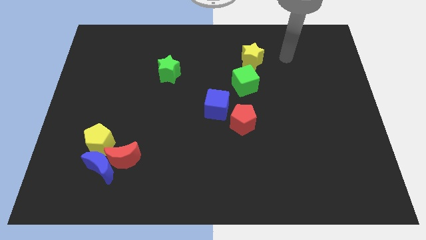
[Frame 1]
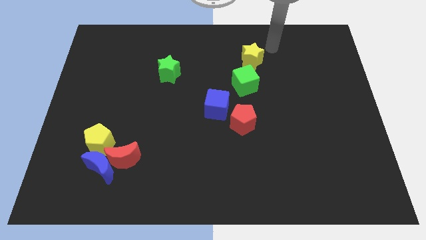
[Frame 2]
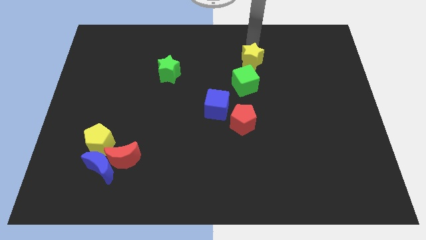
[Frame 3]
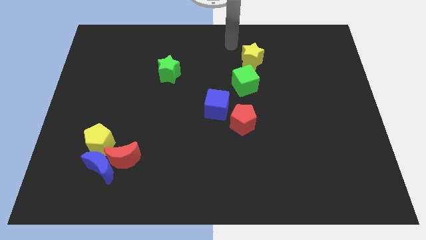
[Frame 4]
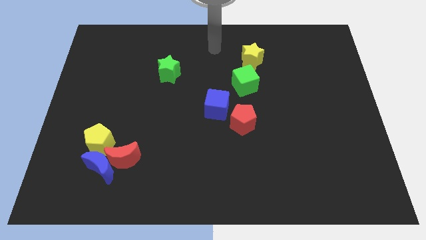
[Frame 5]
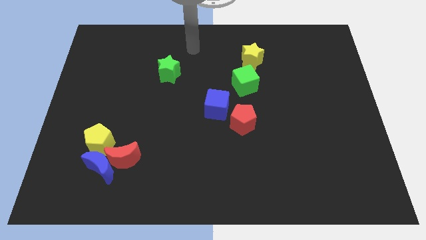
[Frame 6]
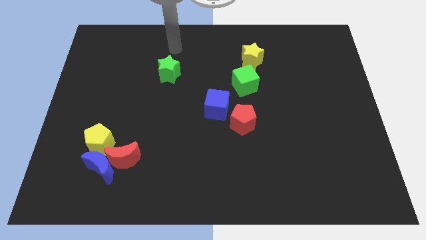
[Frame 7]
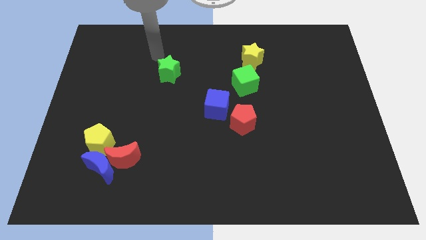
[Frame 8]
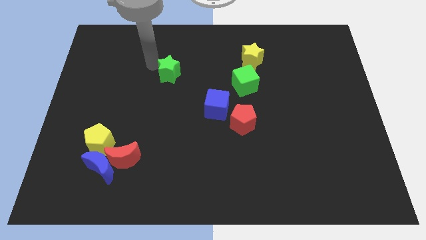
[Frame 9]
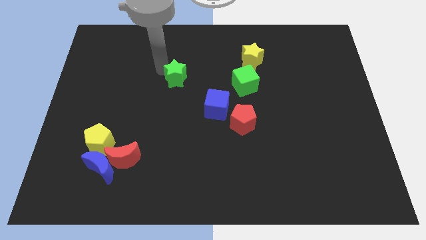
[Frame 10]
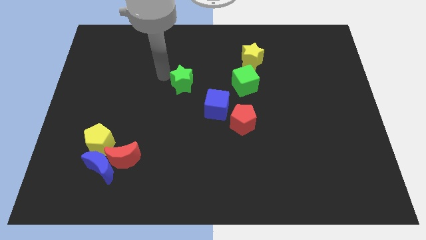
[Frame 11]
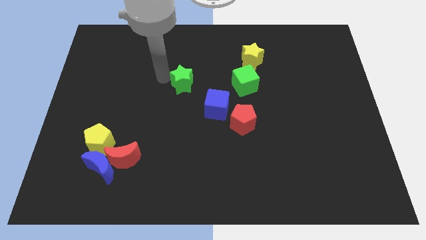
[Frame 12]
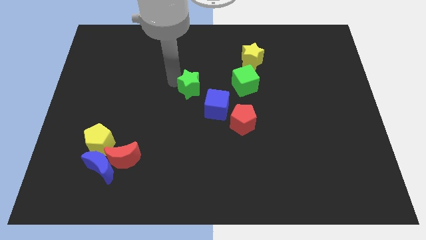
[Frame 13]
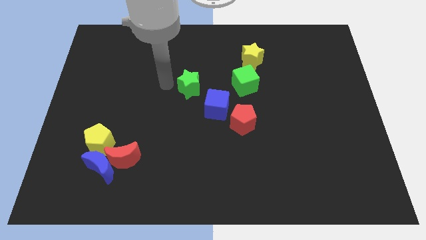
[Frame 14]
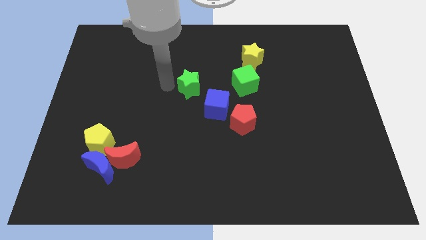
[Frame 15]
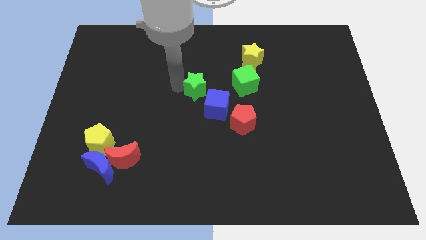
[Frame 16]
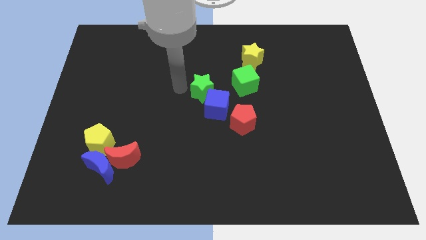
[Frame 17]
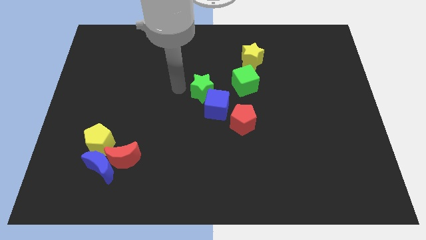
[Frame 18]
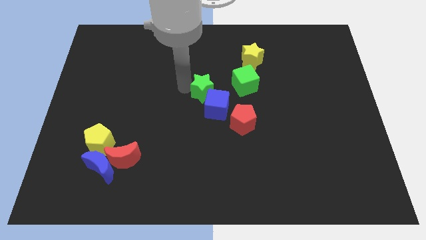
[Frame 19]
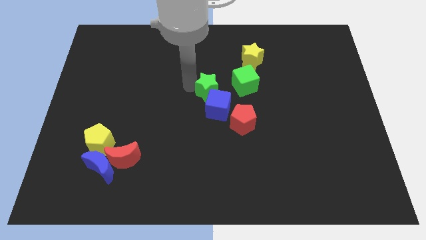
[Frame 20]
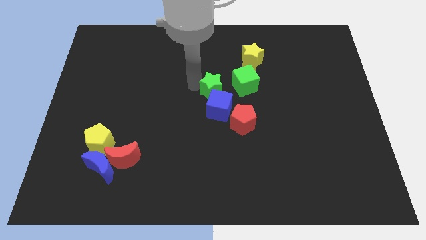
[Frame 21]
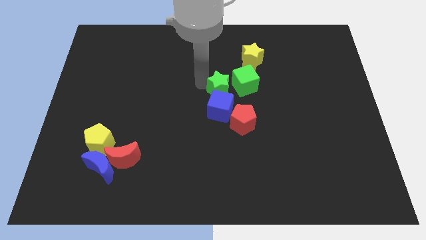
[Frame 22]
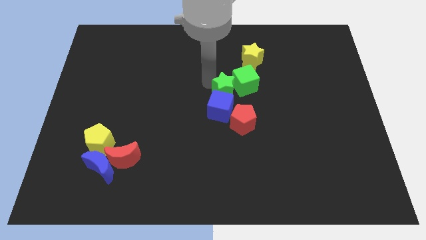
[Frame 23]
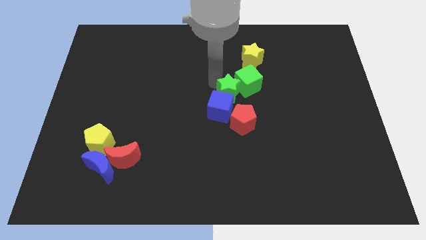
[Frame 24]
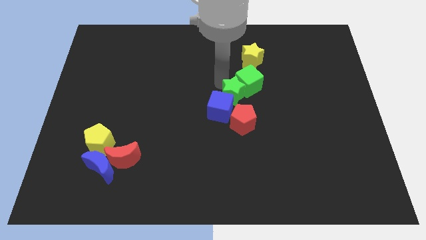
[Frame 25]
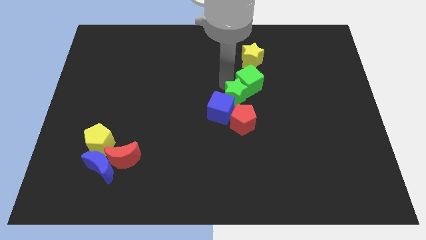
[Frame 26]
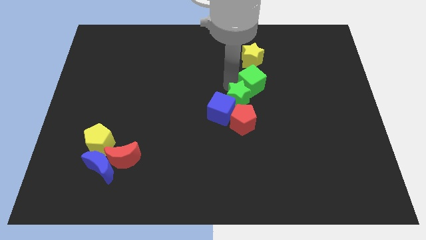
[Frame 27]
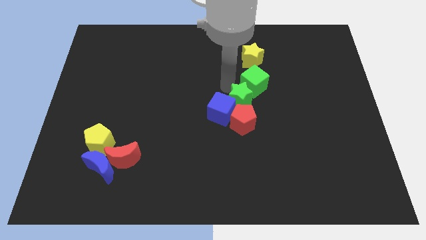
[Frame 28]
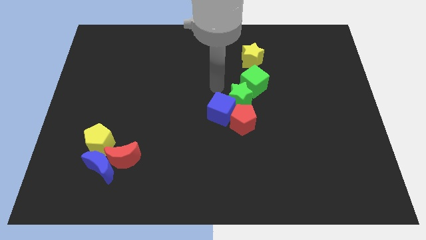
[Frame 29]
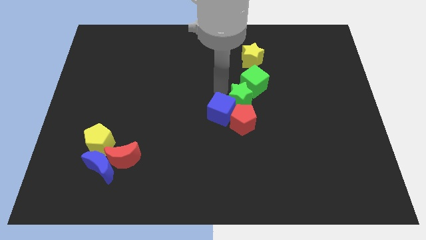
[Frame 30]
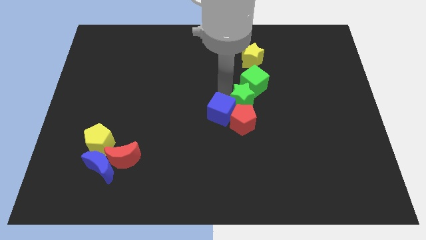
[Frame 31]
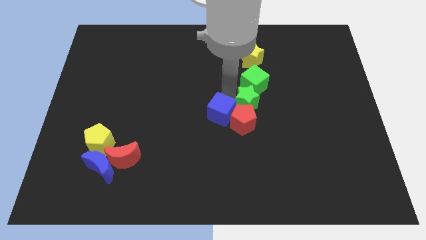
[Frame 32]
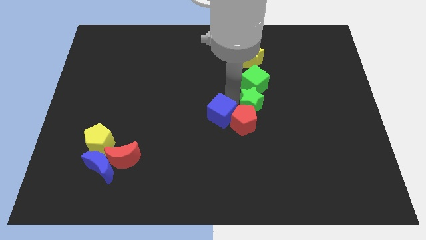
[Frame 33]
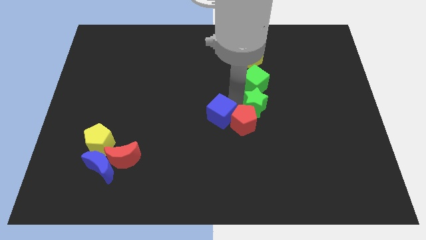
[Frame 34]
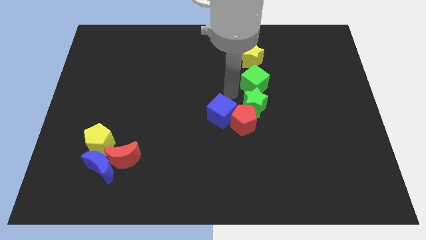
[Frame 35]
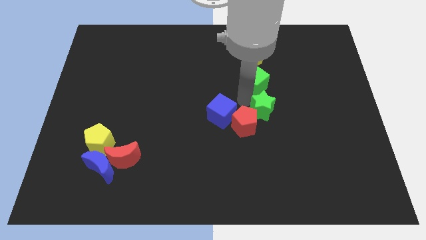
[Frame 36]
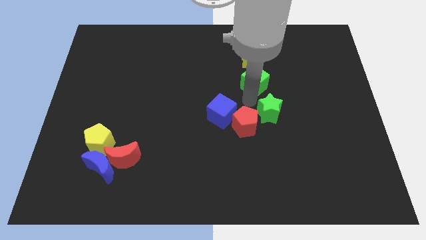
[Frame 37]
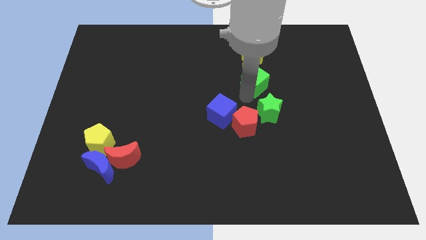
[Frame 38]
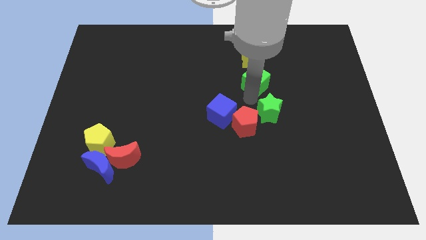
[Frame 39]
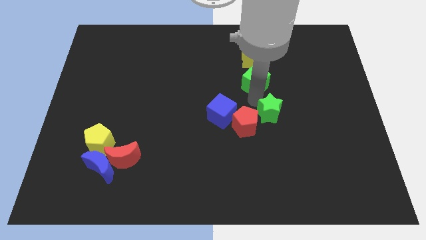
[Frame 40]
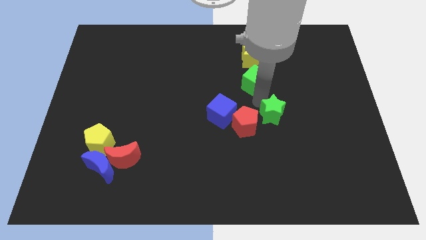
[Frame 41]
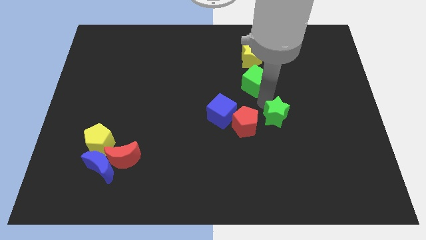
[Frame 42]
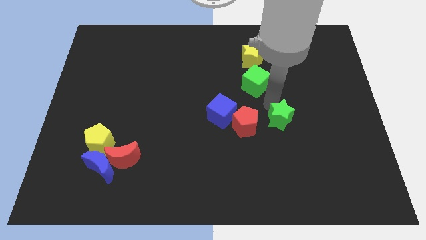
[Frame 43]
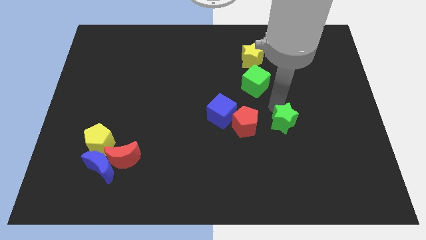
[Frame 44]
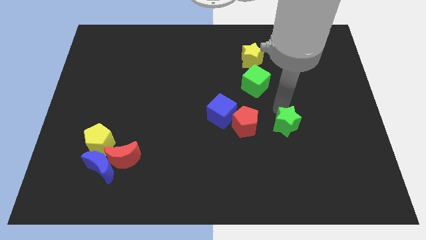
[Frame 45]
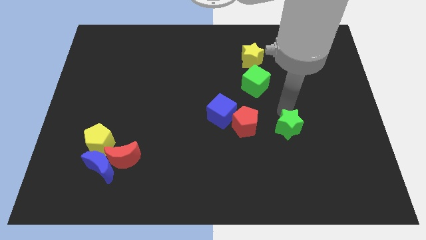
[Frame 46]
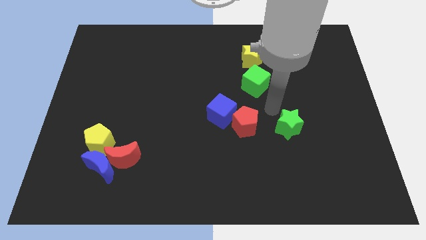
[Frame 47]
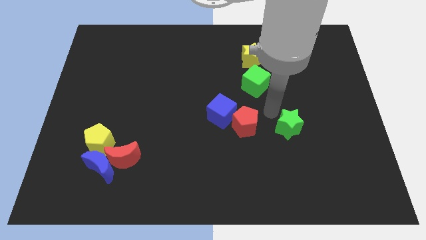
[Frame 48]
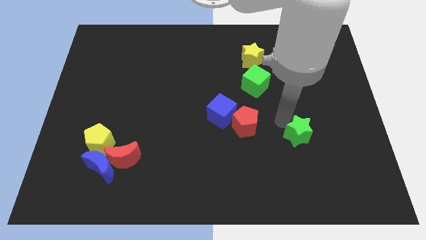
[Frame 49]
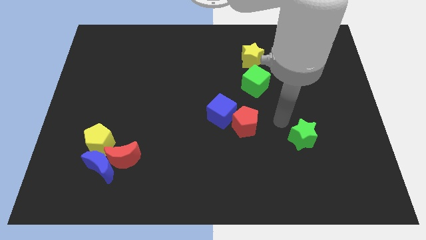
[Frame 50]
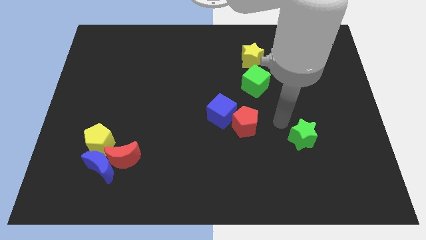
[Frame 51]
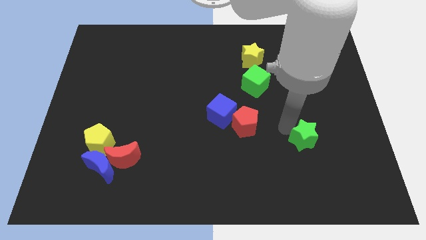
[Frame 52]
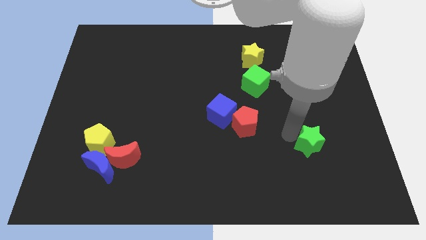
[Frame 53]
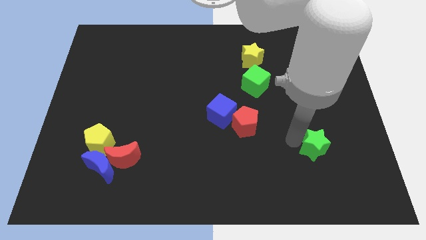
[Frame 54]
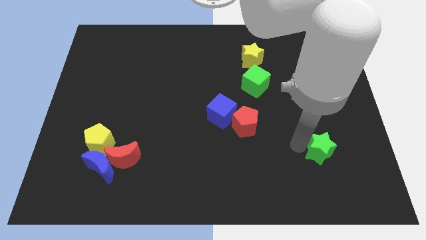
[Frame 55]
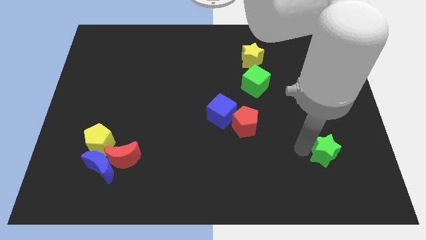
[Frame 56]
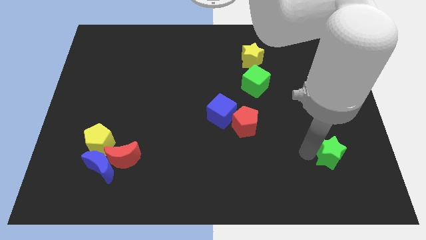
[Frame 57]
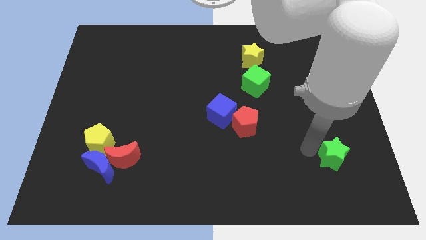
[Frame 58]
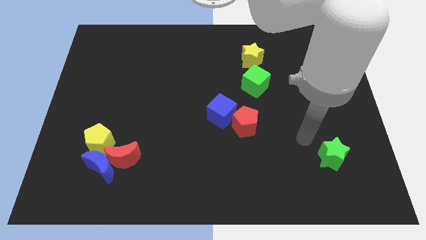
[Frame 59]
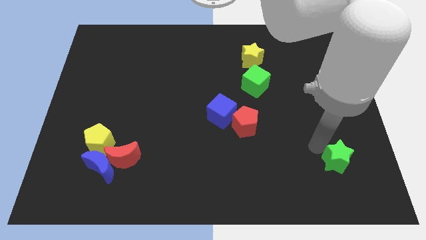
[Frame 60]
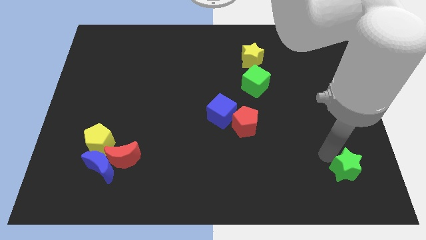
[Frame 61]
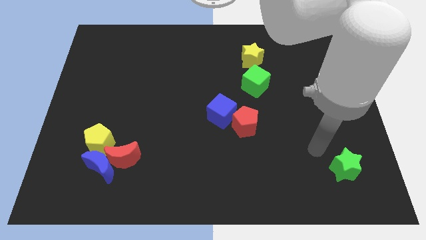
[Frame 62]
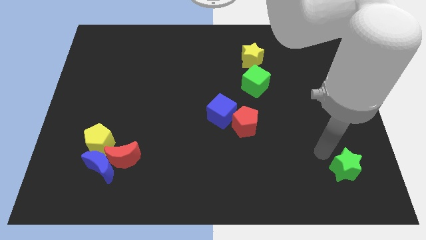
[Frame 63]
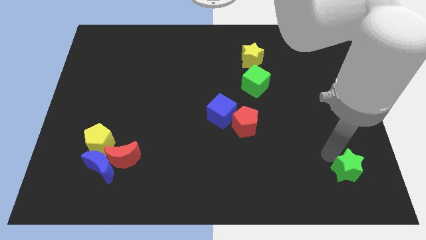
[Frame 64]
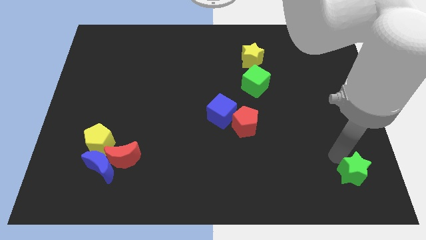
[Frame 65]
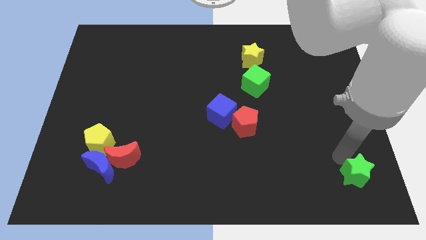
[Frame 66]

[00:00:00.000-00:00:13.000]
push the green star to the bottom right of the board
